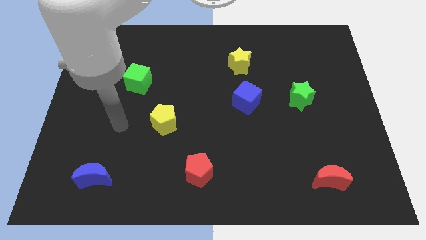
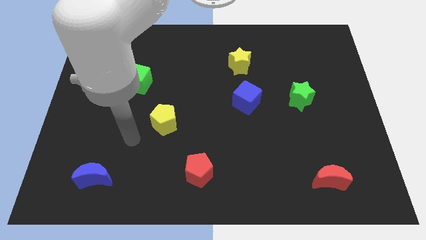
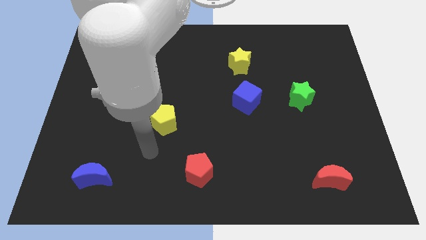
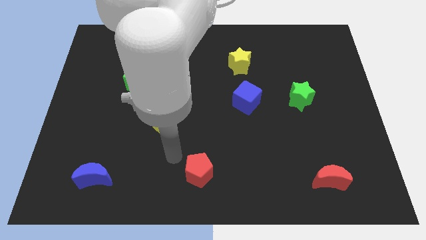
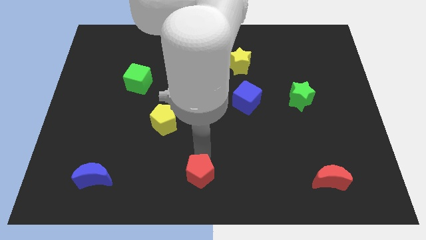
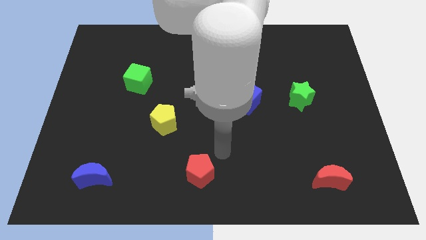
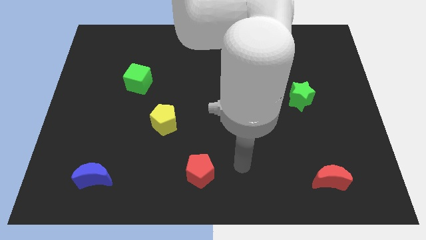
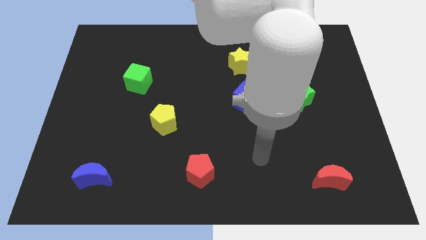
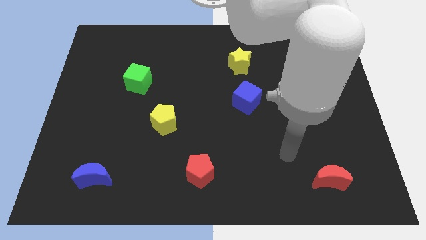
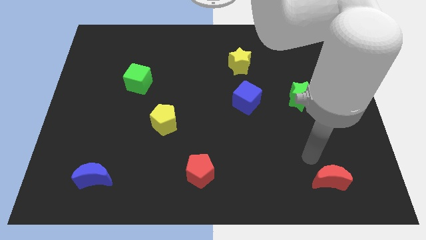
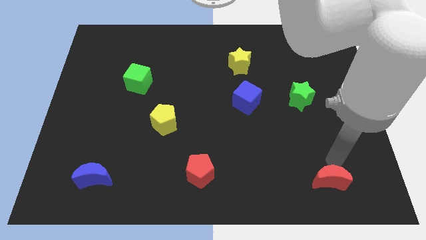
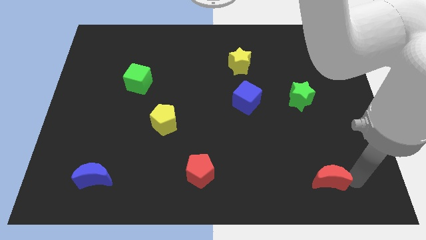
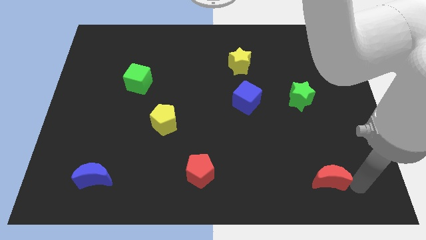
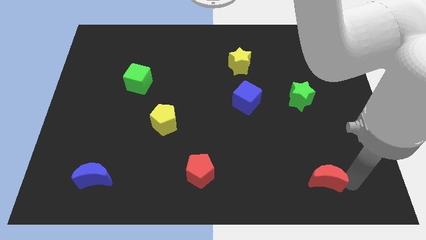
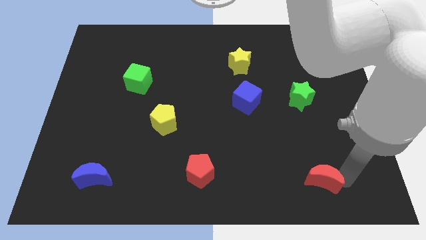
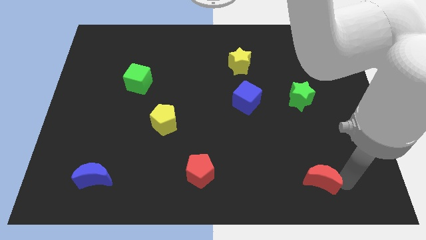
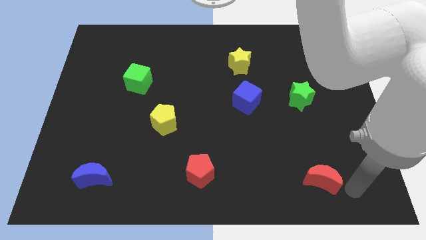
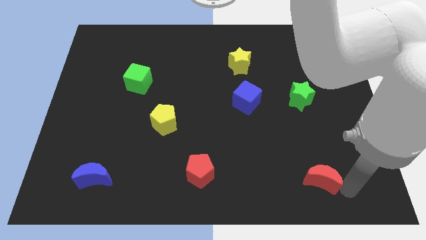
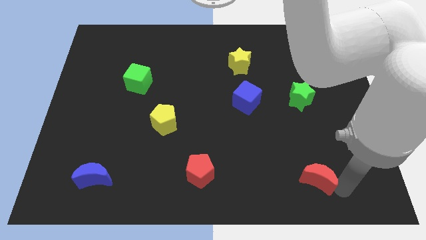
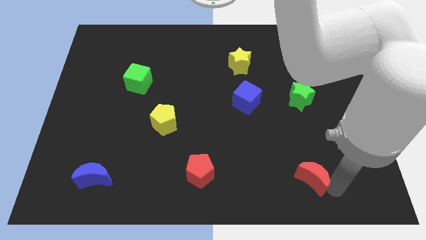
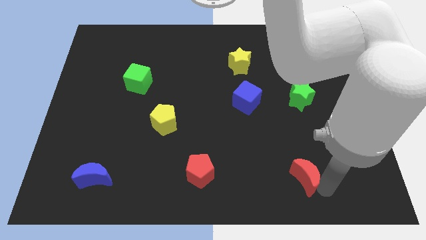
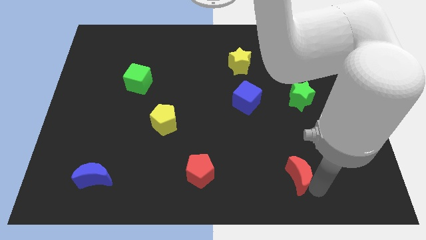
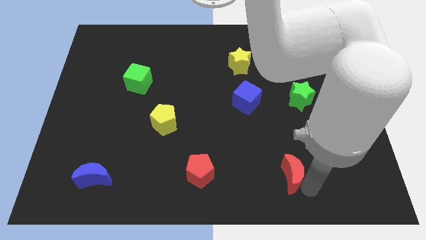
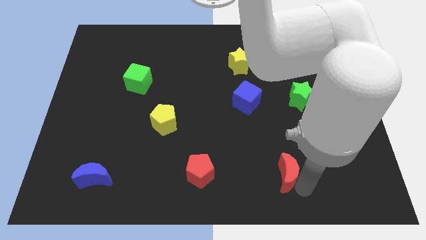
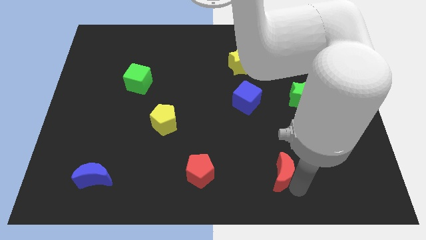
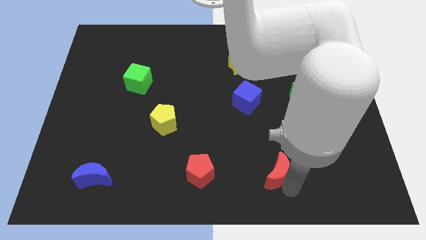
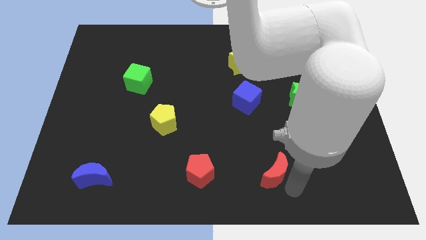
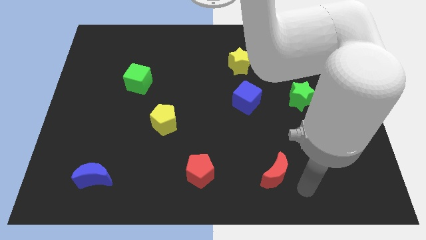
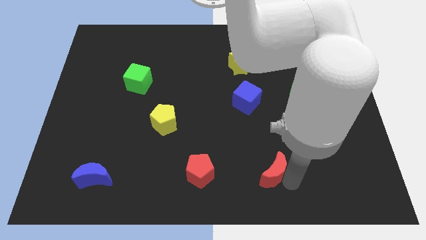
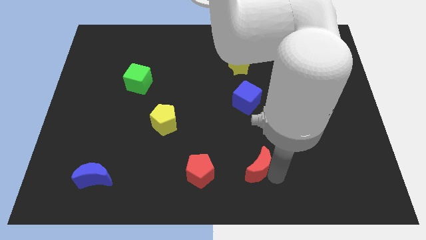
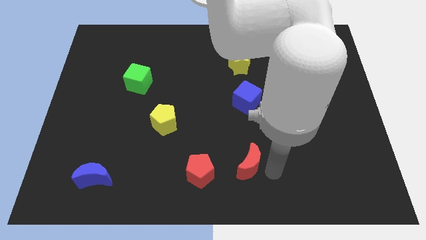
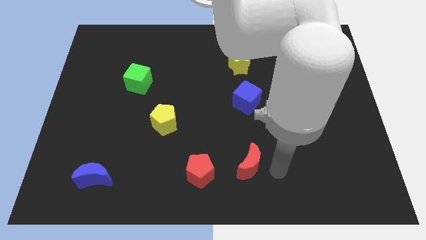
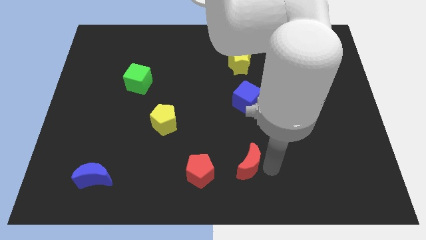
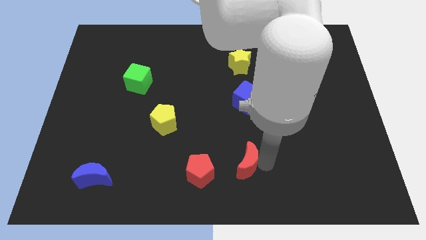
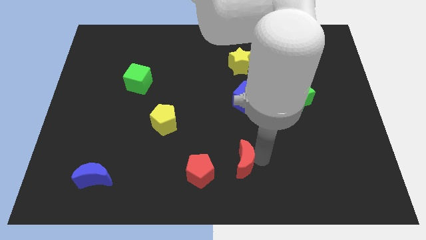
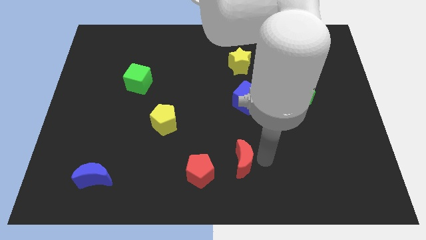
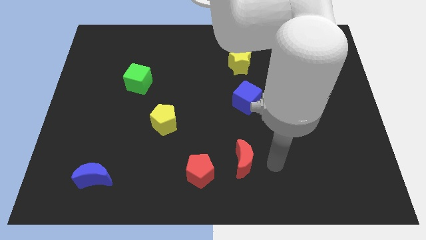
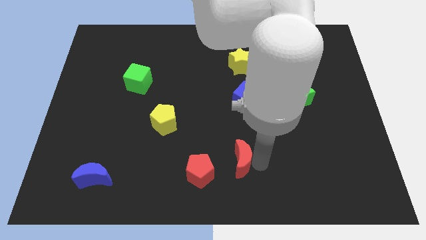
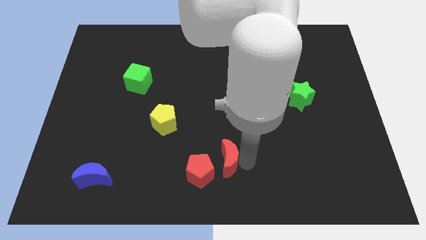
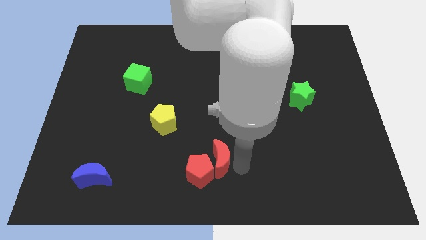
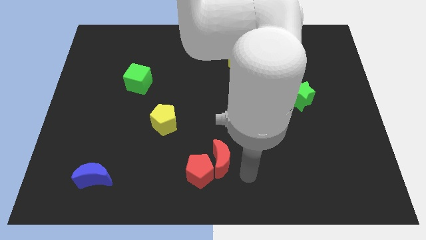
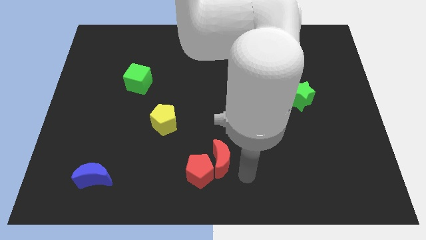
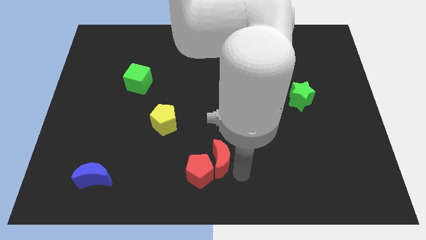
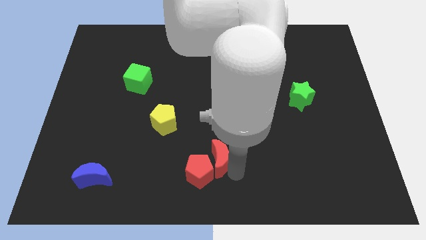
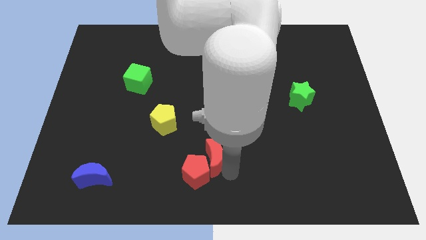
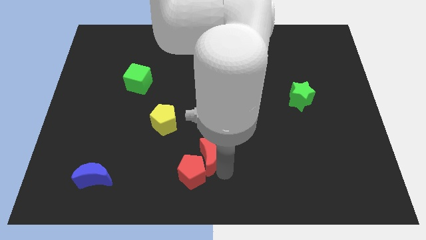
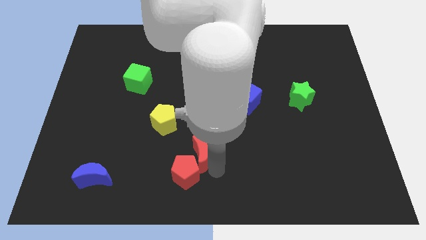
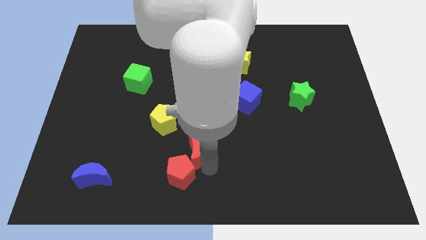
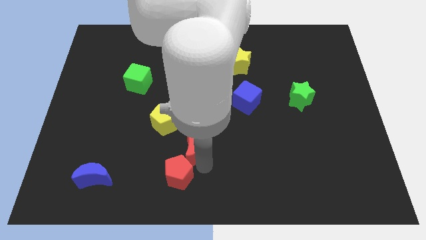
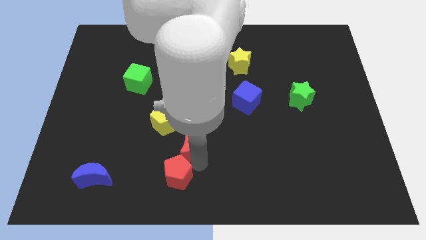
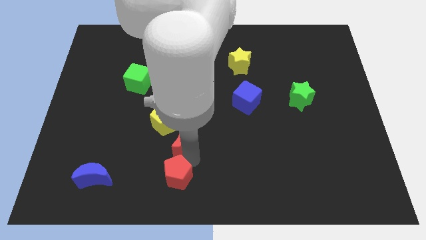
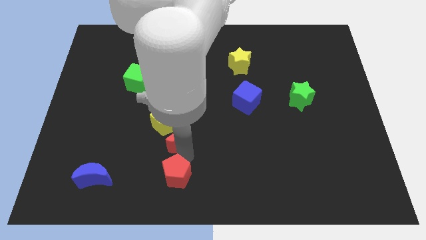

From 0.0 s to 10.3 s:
put the red moon next to the yellow pentagon

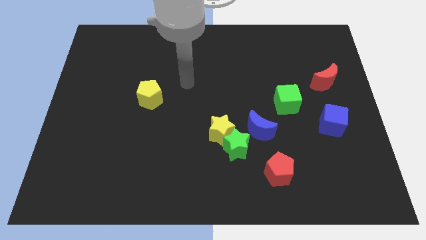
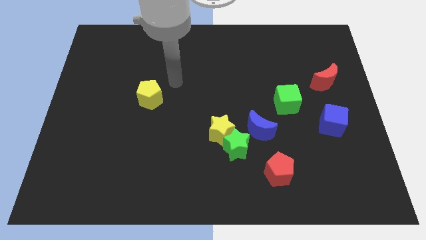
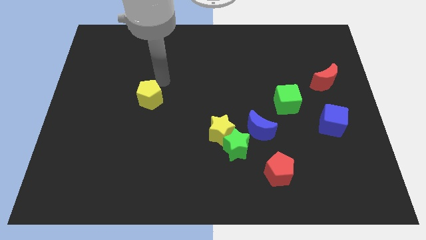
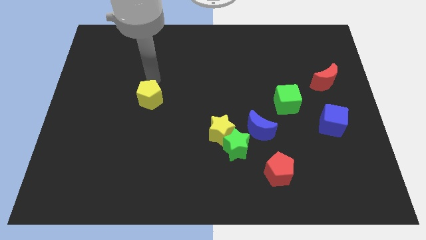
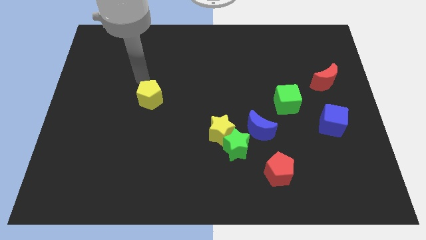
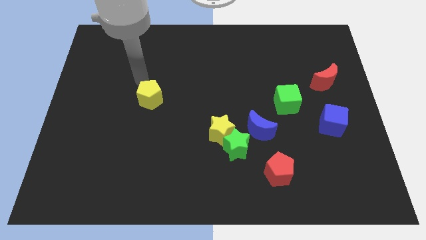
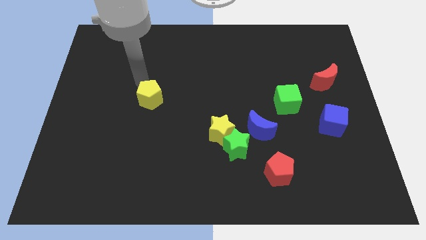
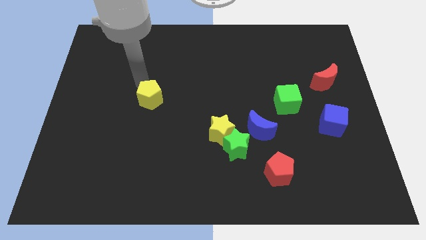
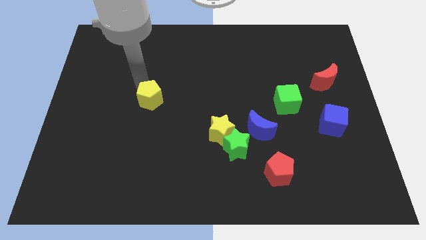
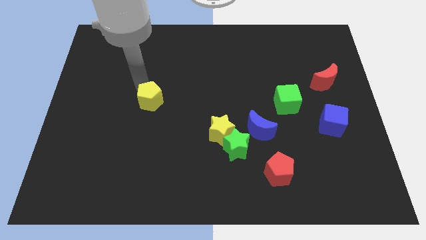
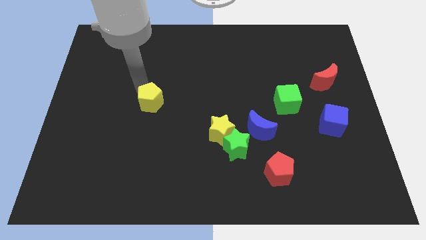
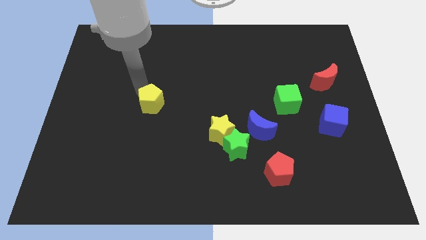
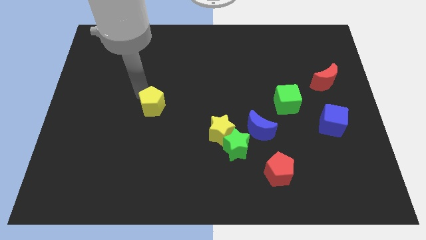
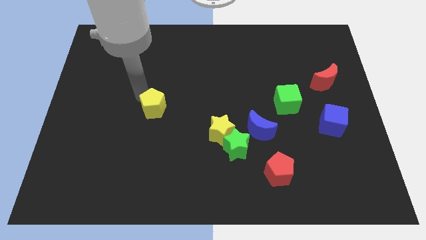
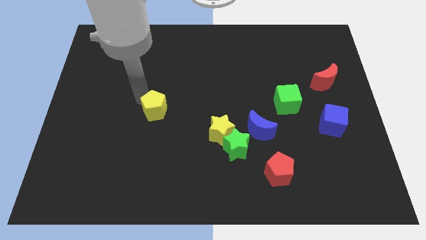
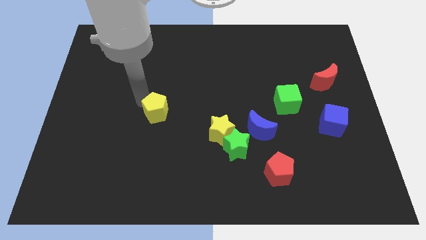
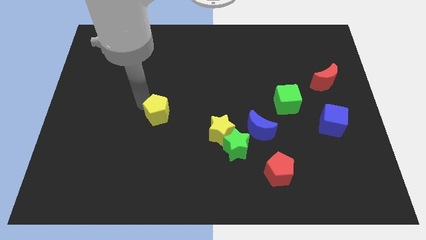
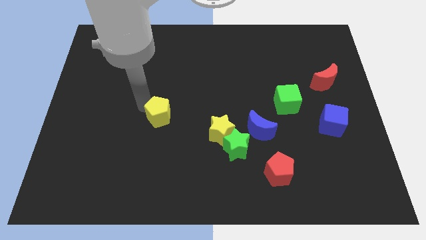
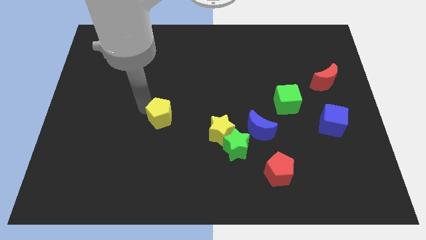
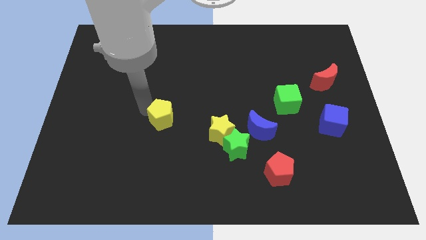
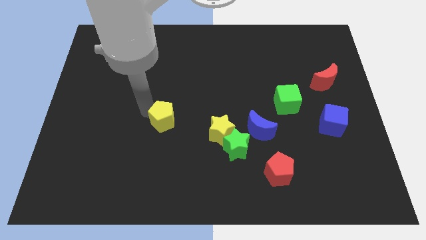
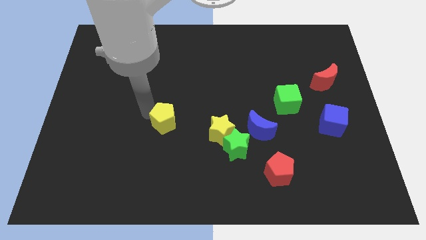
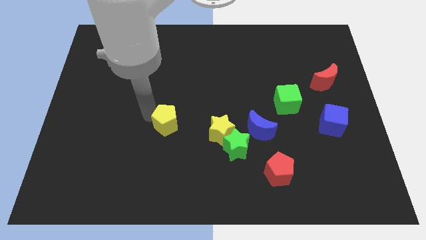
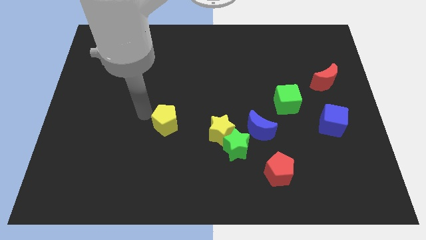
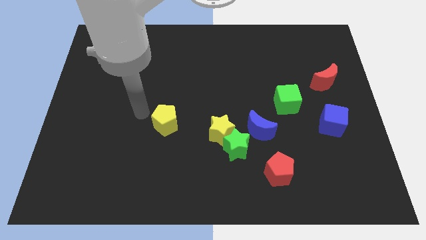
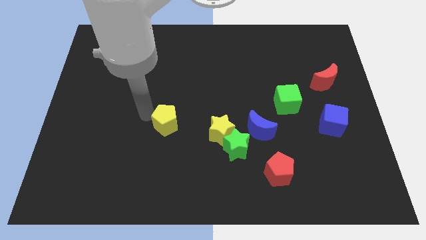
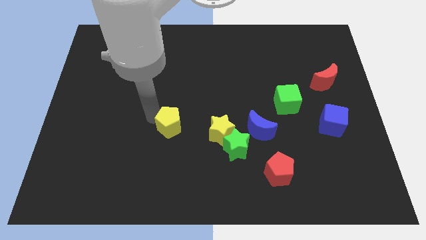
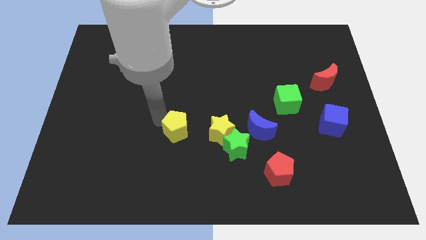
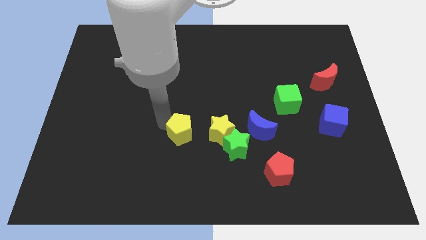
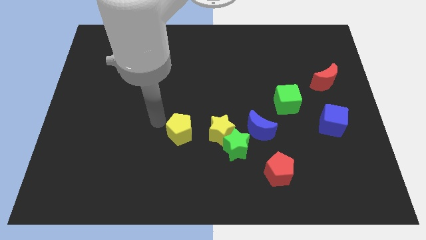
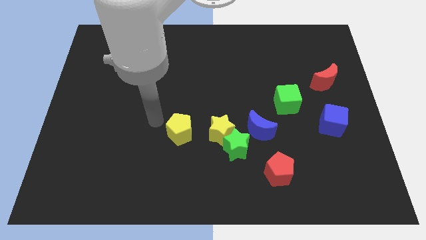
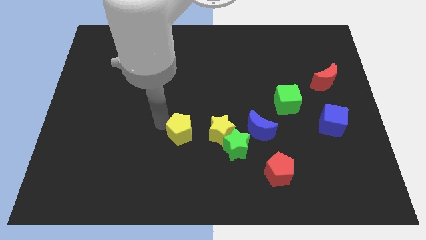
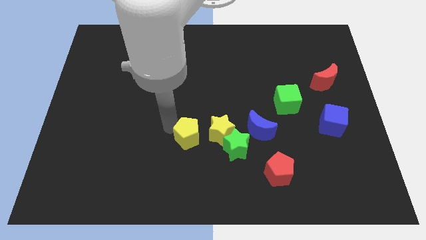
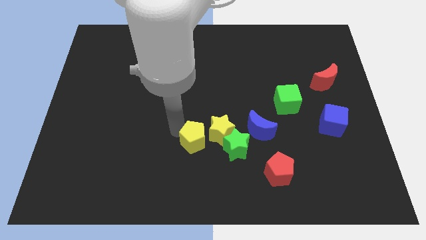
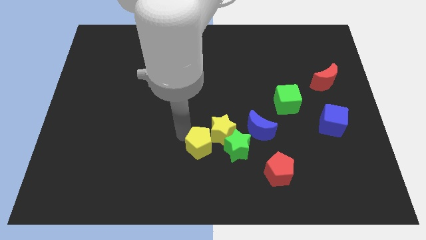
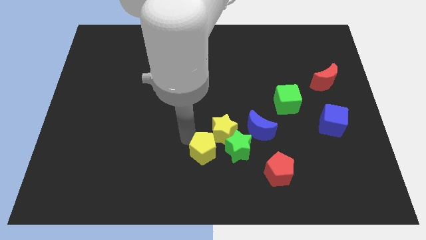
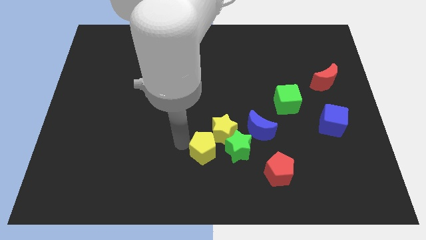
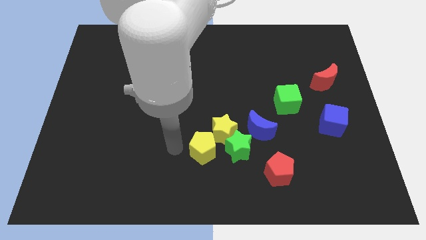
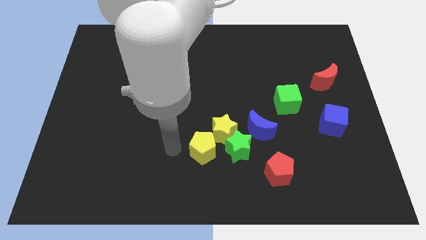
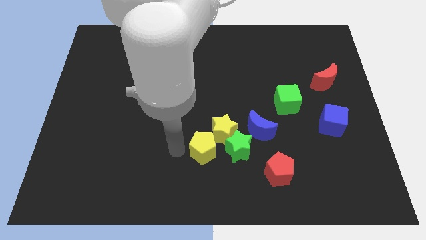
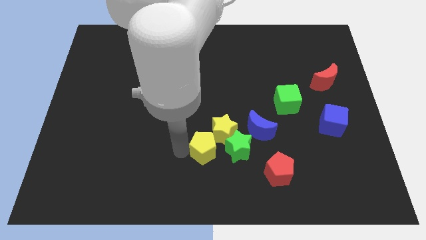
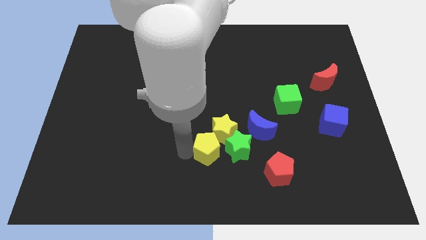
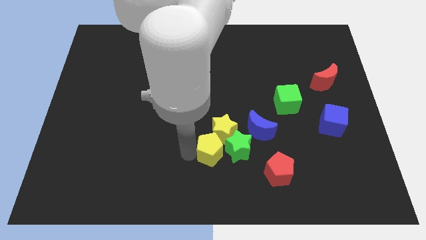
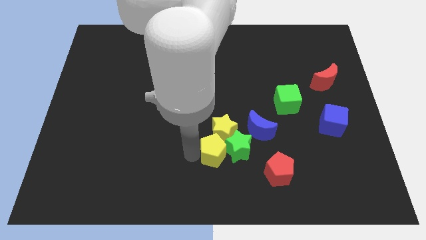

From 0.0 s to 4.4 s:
move the yellow pentagon towards the green star
